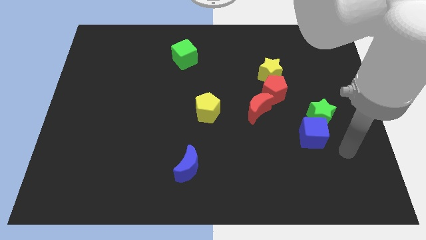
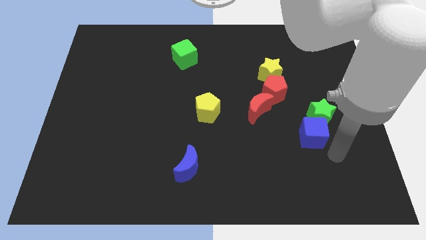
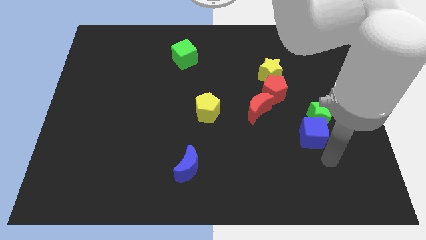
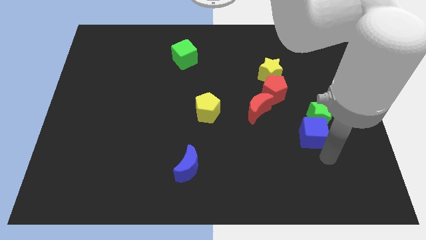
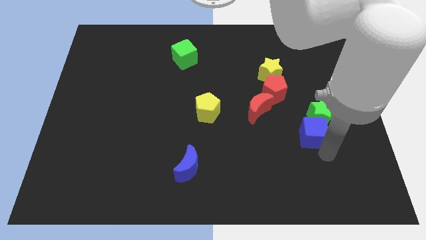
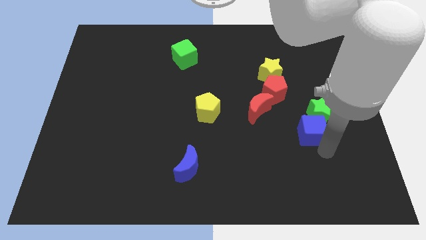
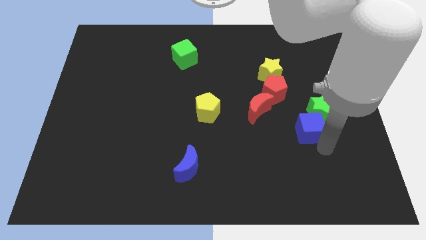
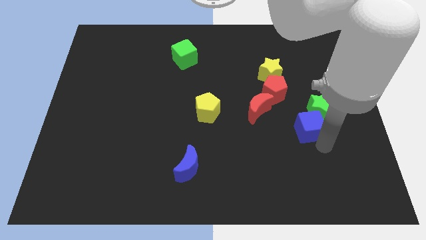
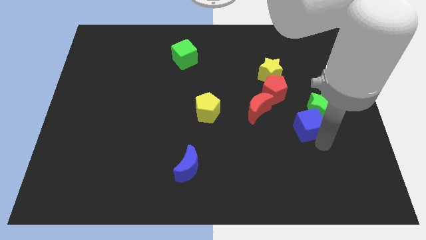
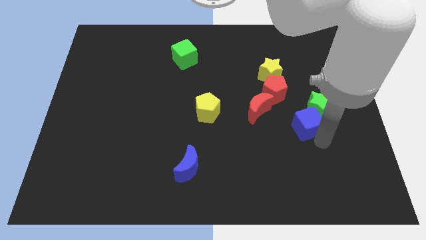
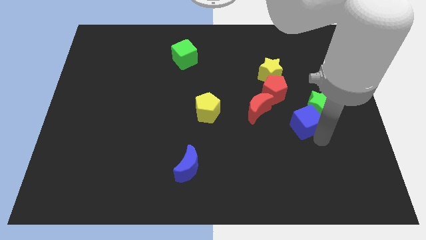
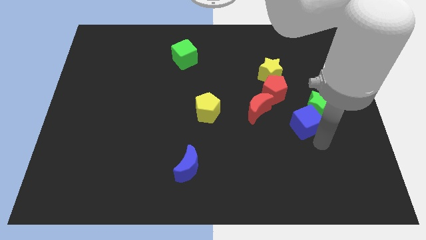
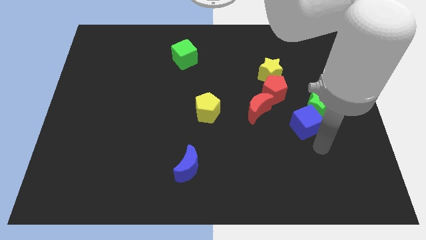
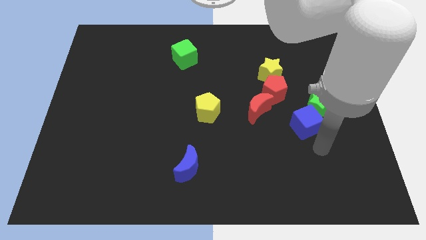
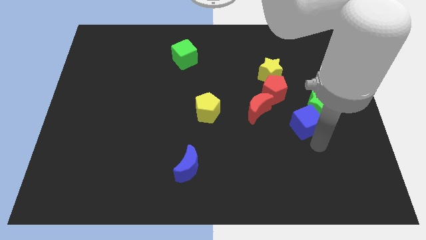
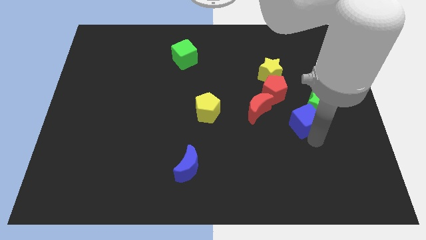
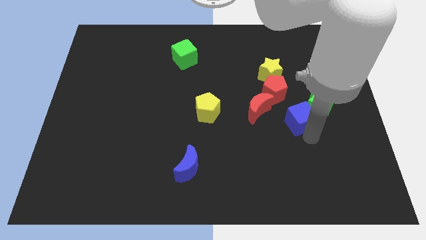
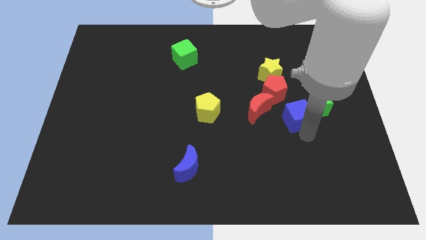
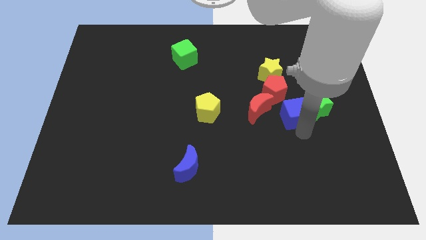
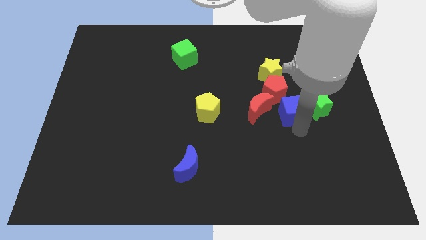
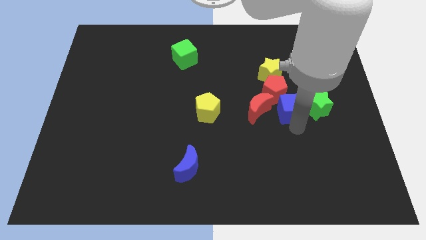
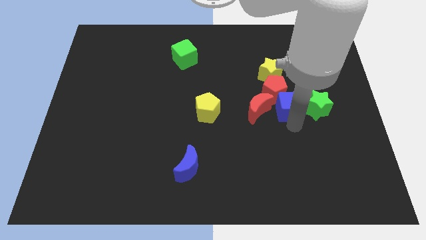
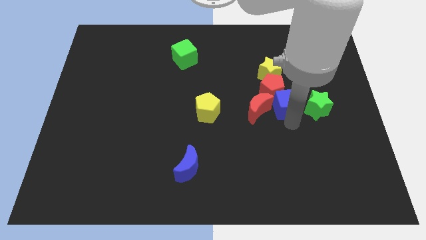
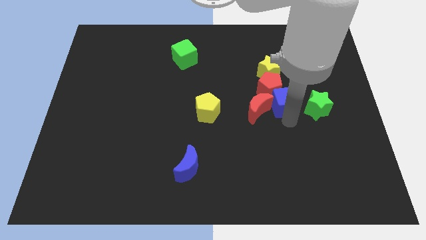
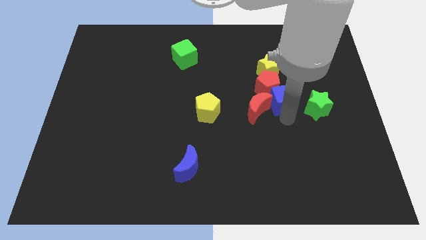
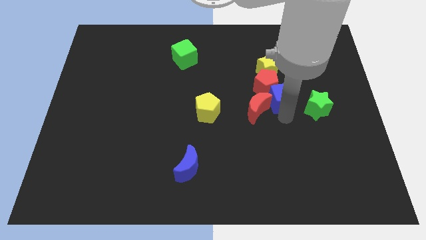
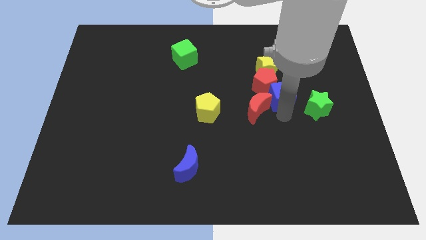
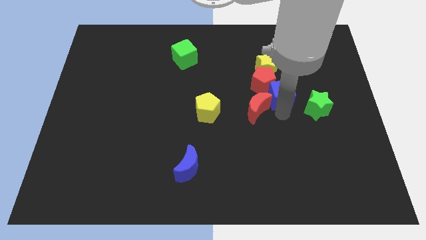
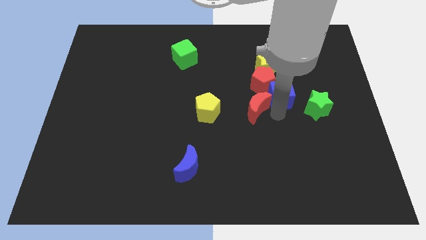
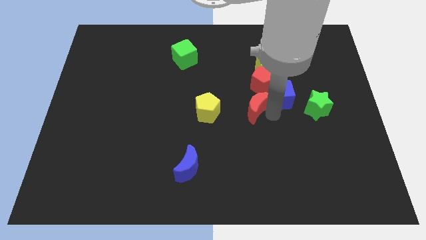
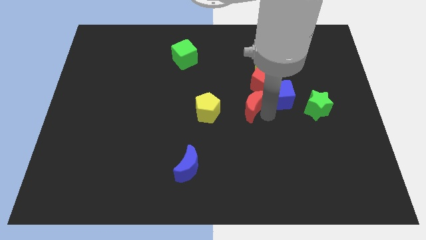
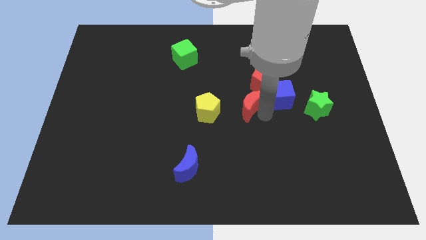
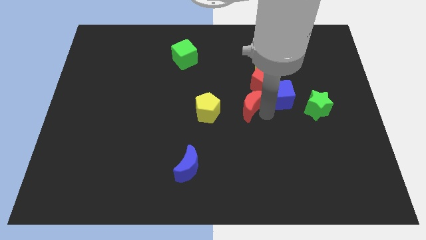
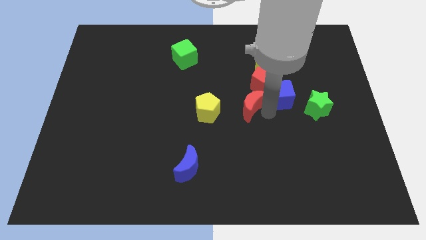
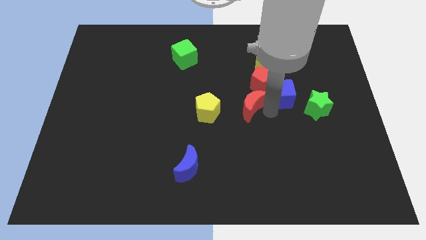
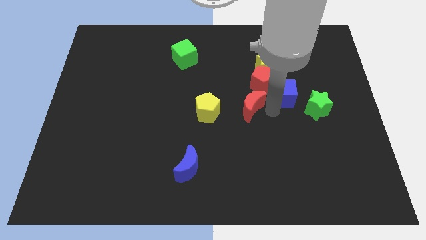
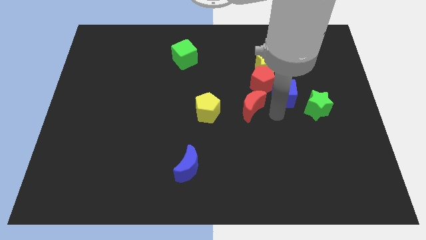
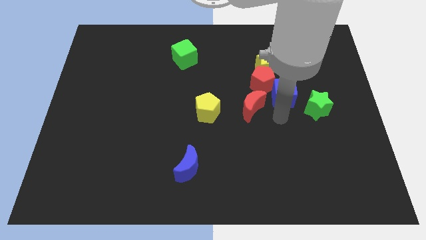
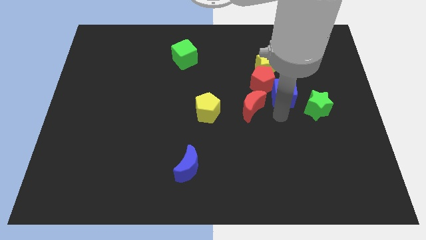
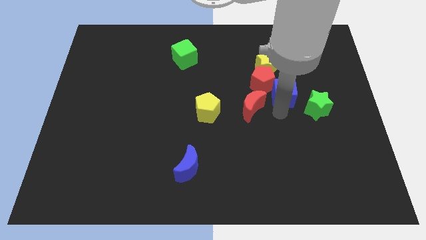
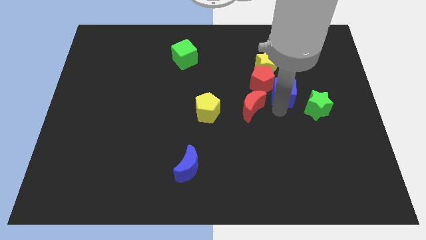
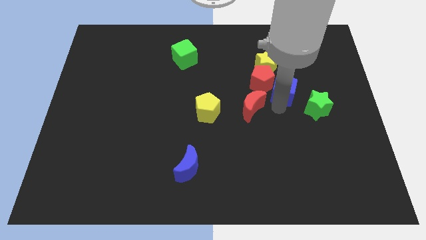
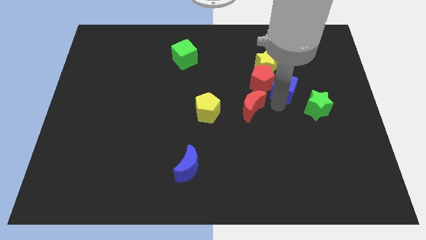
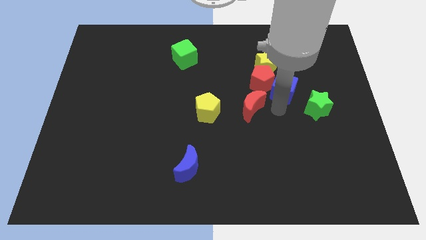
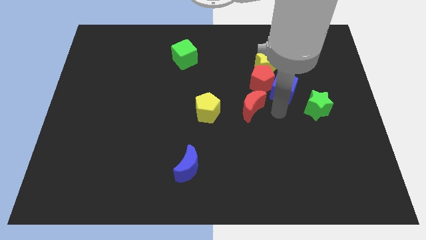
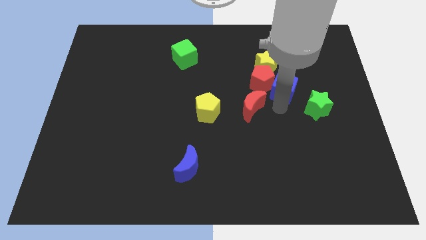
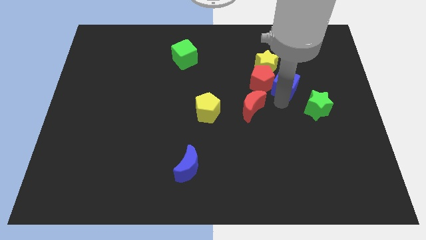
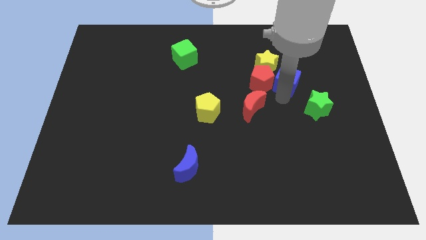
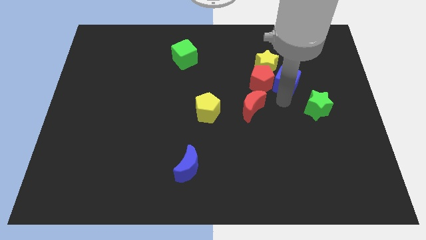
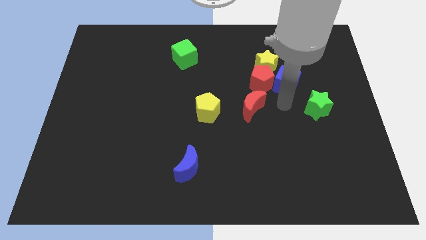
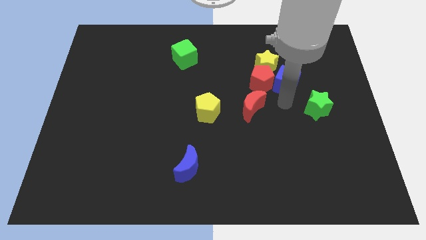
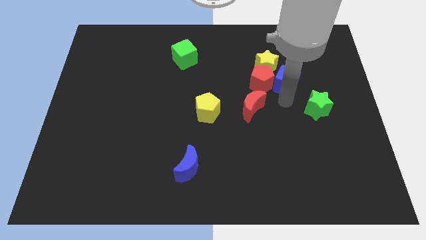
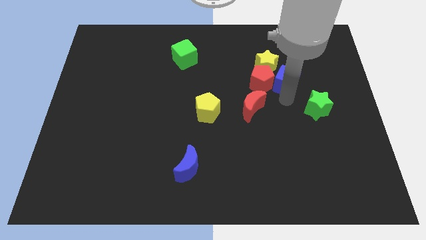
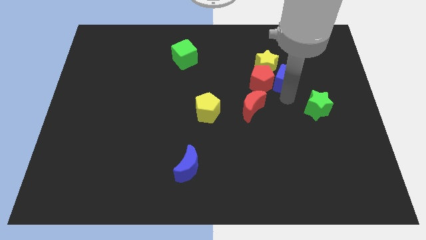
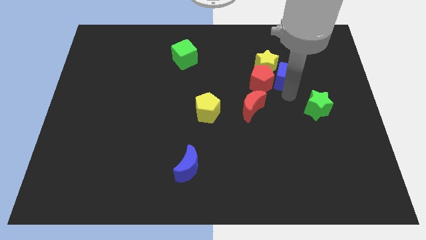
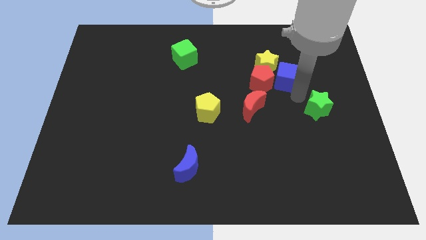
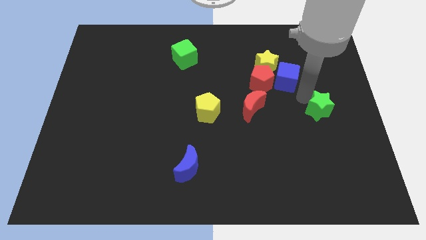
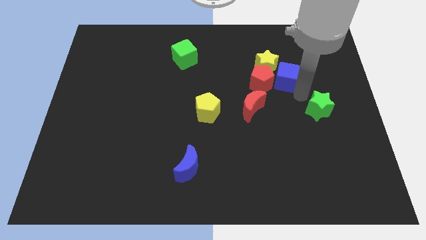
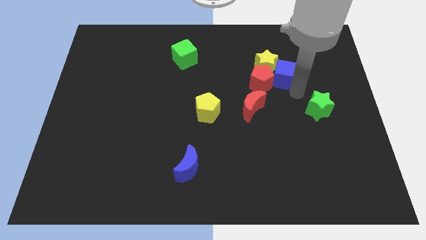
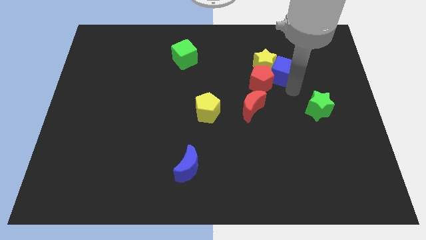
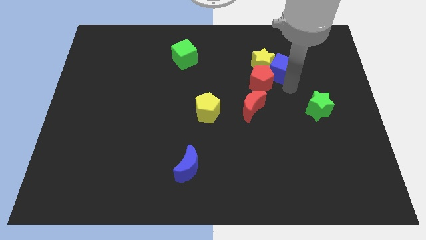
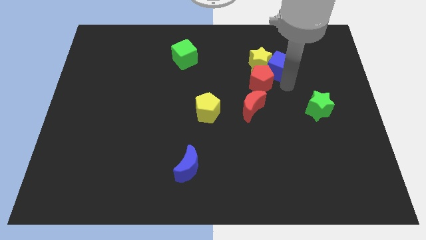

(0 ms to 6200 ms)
slide the blue cube to the top side of the red pentagon

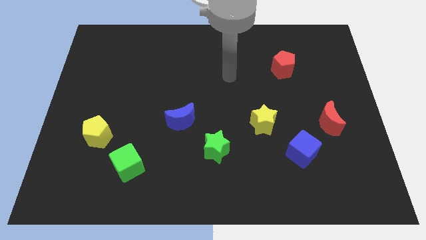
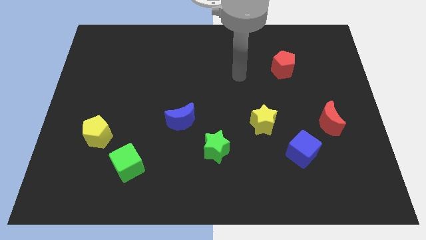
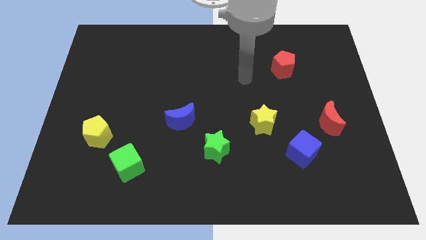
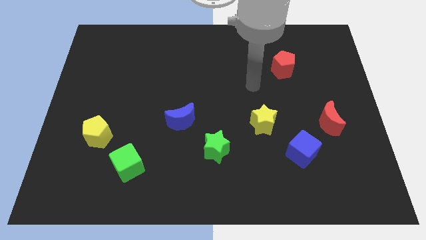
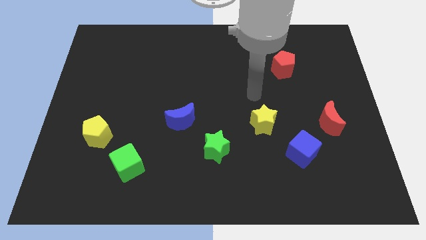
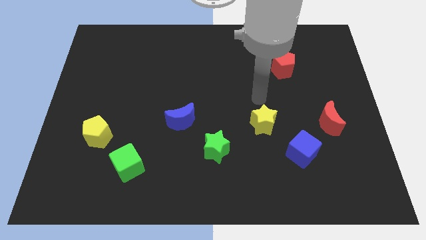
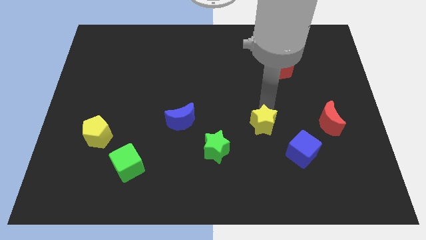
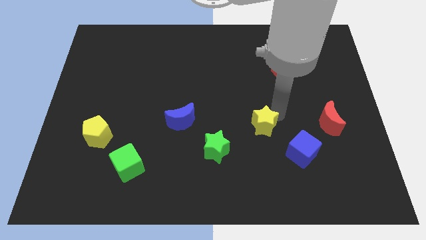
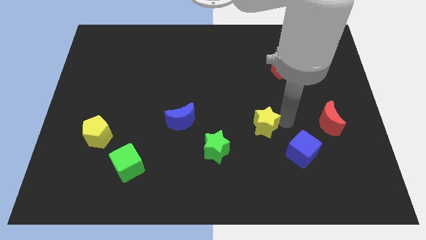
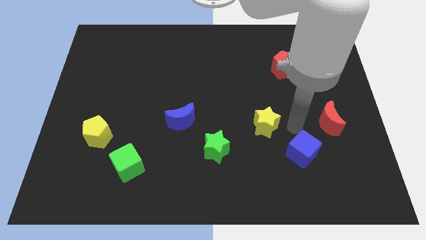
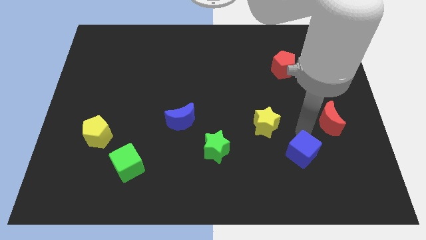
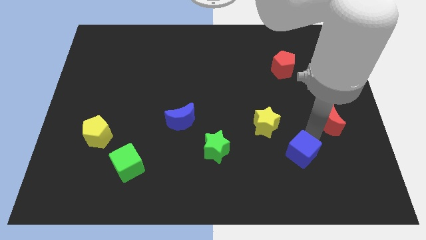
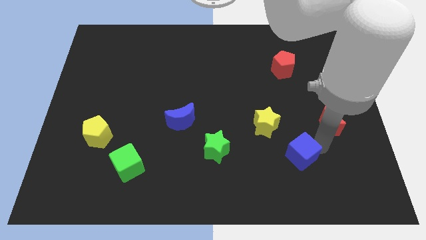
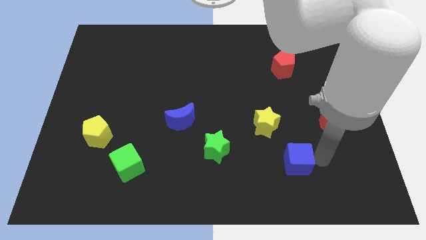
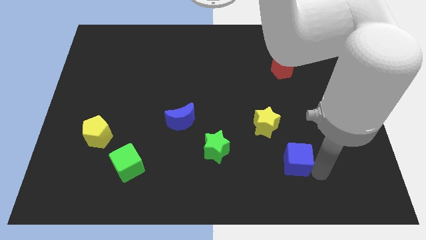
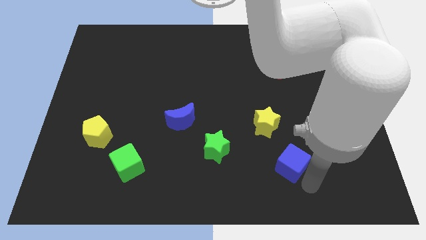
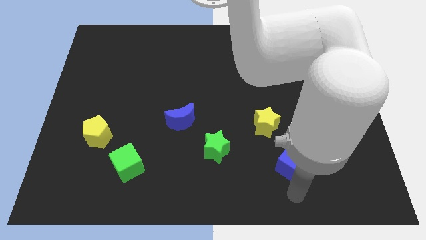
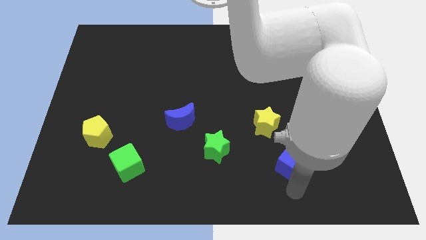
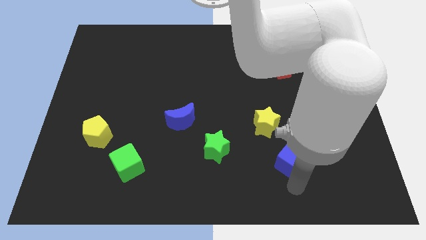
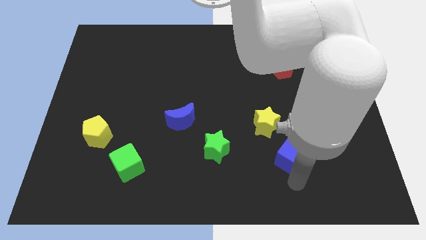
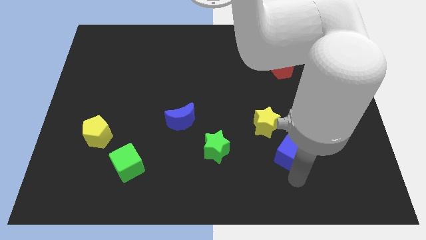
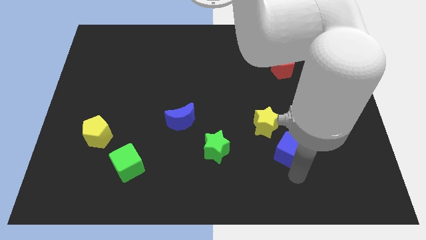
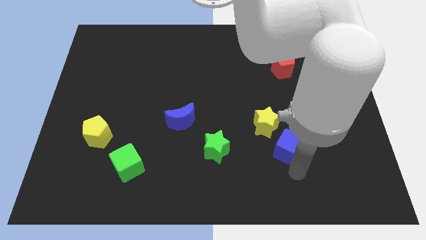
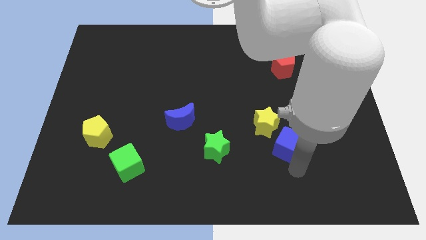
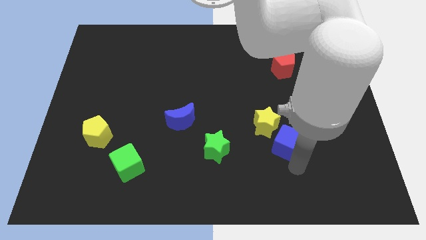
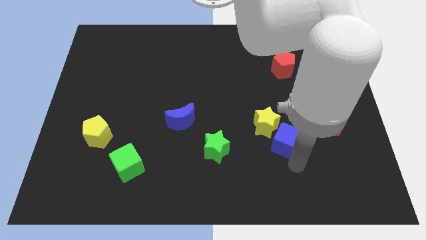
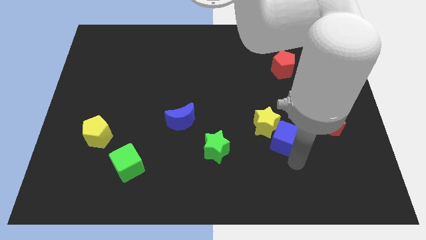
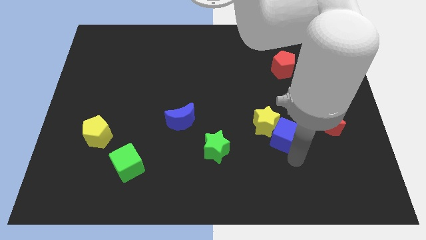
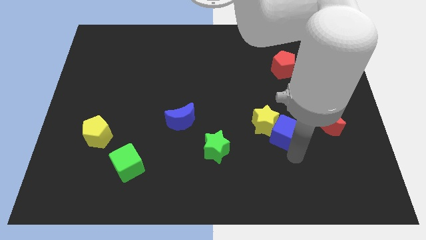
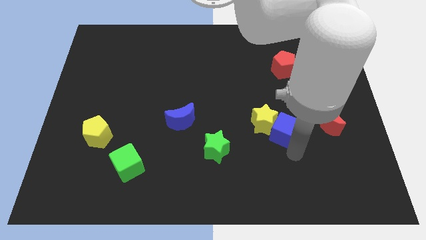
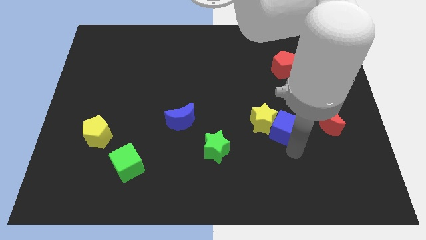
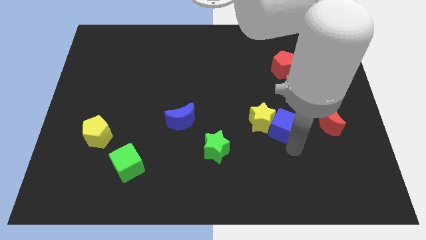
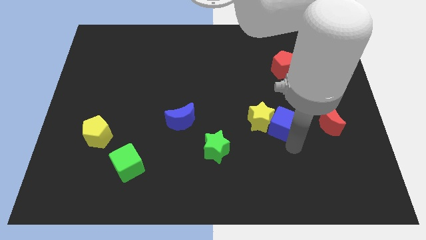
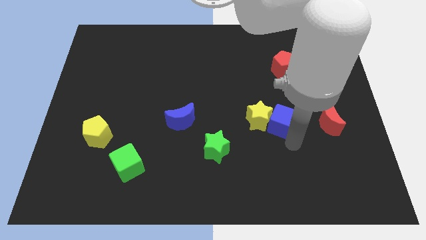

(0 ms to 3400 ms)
push the blue cube diagonally up and to the right of the yellow star
